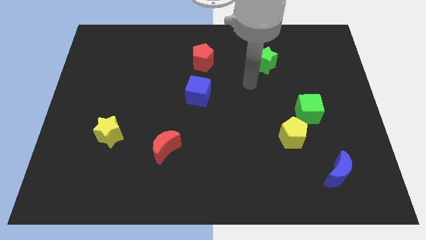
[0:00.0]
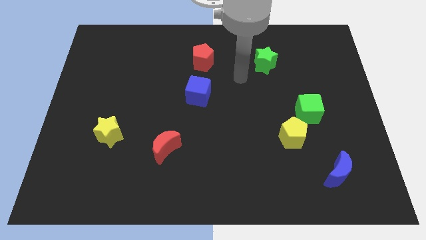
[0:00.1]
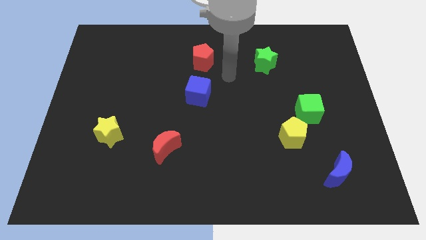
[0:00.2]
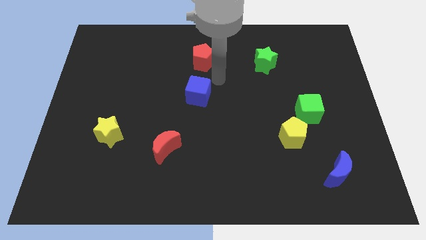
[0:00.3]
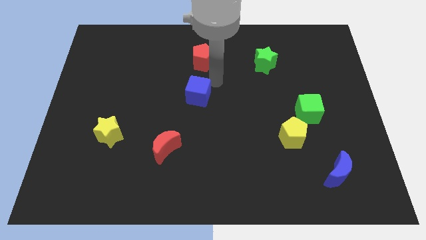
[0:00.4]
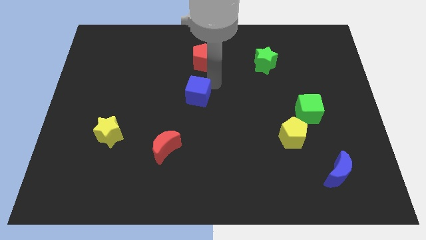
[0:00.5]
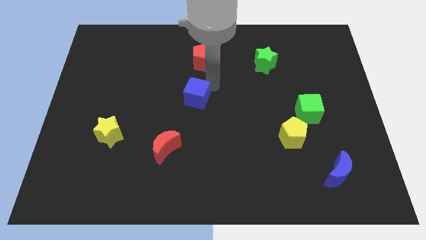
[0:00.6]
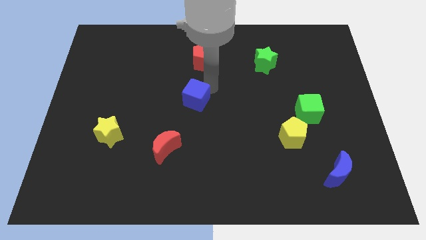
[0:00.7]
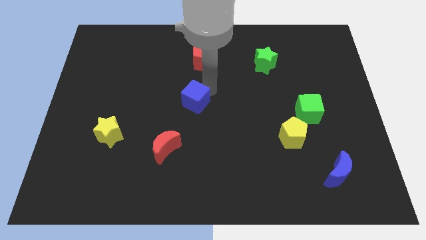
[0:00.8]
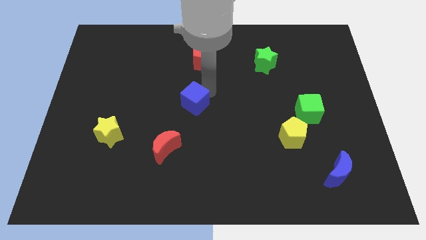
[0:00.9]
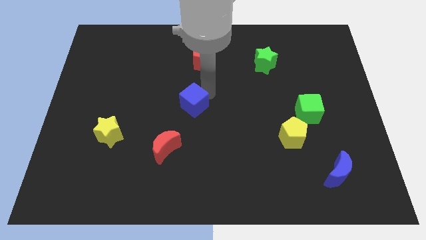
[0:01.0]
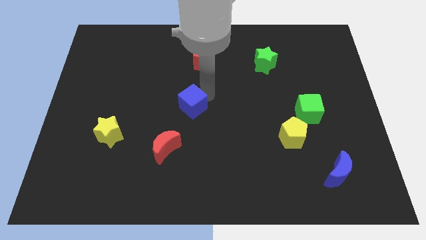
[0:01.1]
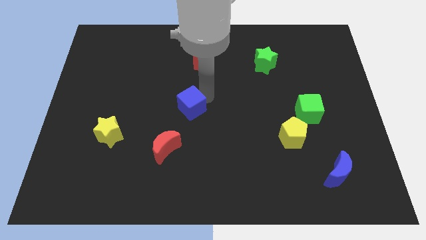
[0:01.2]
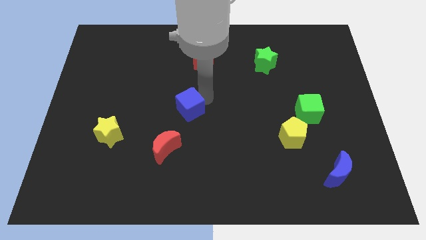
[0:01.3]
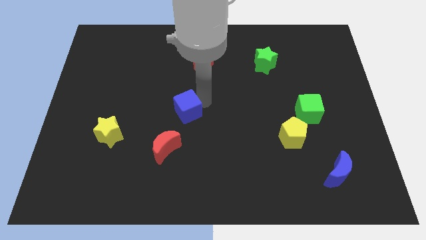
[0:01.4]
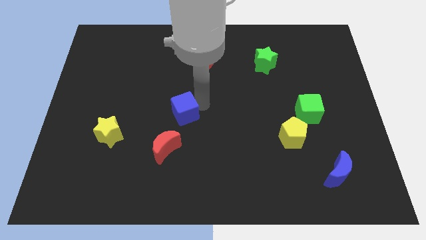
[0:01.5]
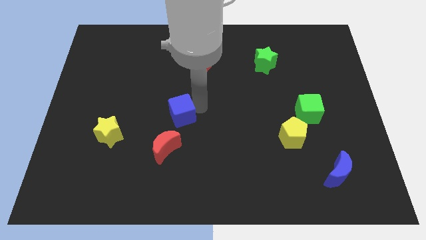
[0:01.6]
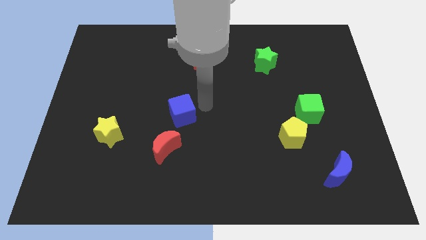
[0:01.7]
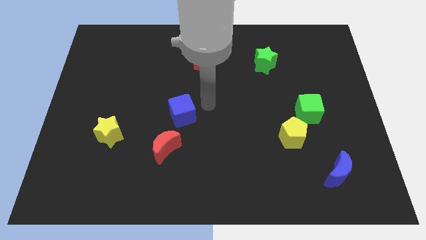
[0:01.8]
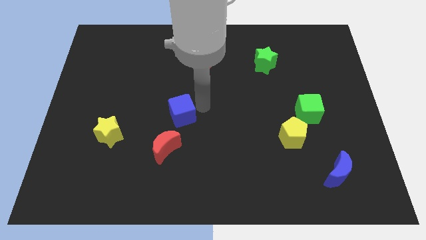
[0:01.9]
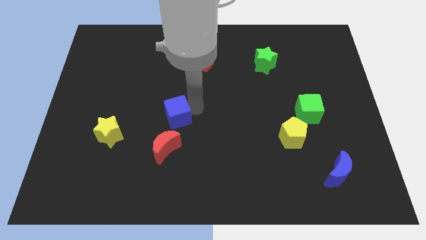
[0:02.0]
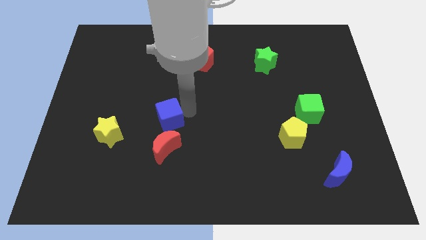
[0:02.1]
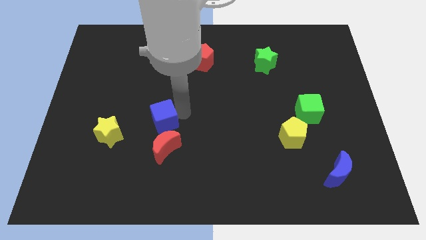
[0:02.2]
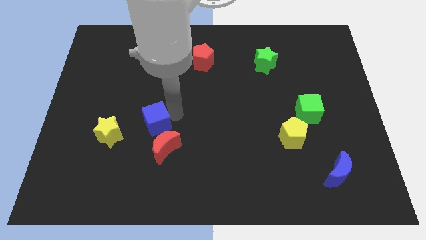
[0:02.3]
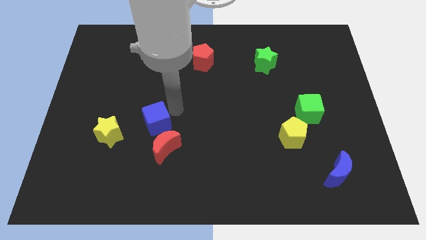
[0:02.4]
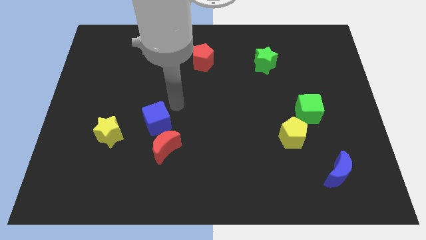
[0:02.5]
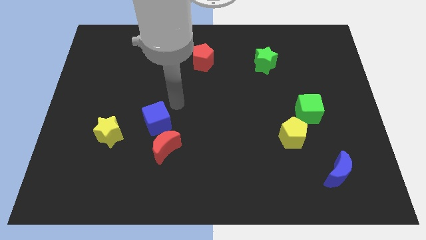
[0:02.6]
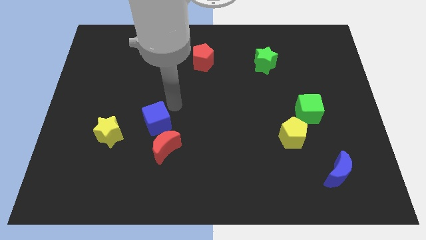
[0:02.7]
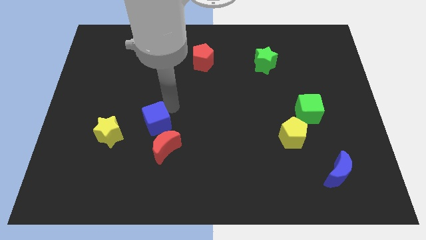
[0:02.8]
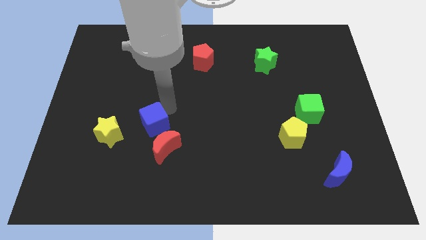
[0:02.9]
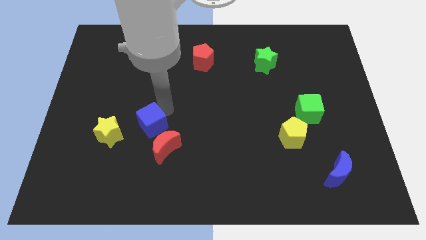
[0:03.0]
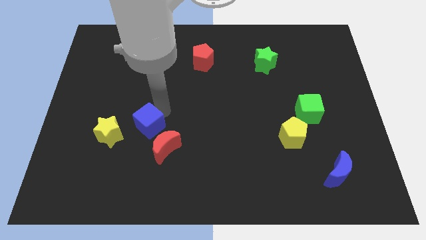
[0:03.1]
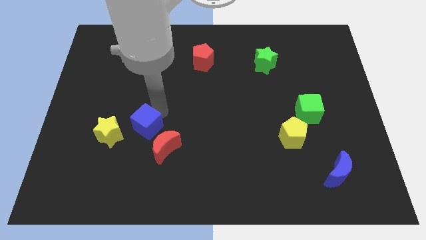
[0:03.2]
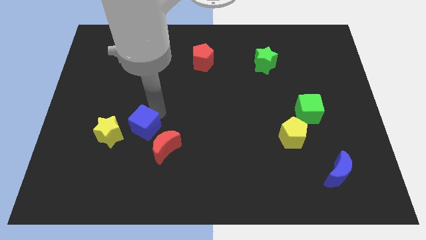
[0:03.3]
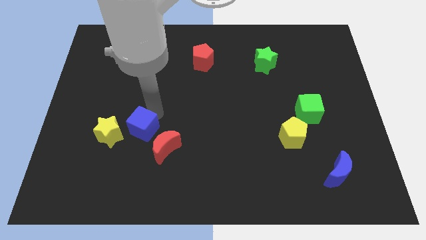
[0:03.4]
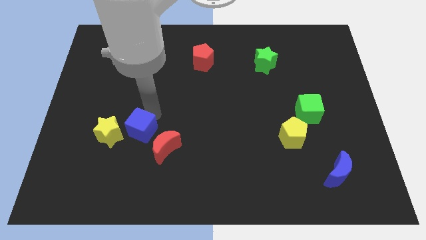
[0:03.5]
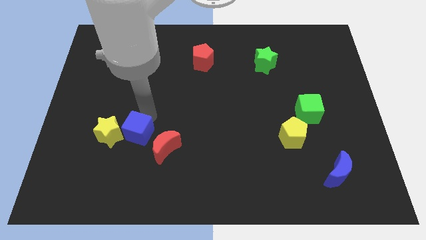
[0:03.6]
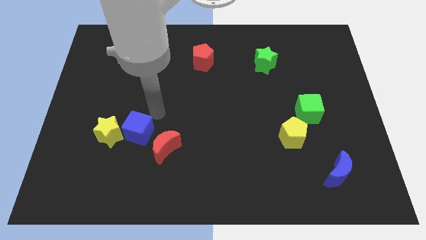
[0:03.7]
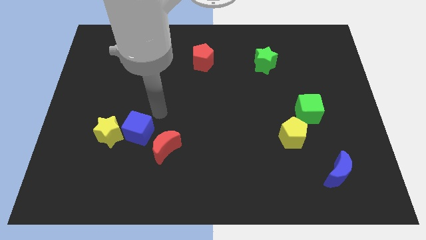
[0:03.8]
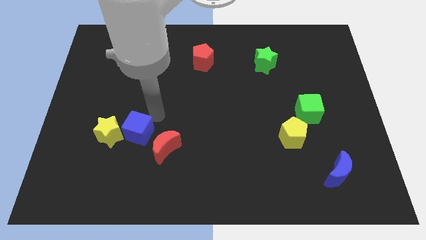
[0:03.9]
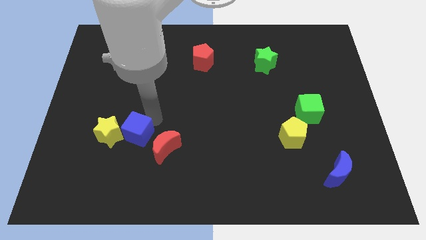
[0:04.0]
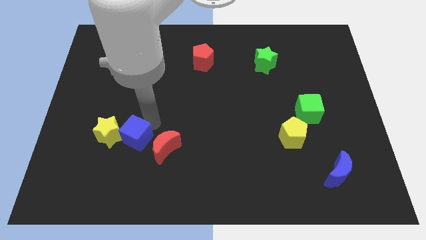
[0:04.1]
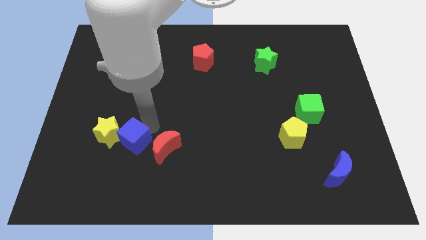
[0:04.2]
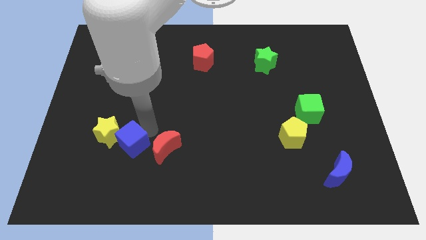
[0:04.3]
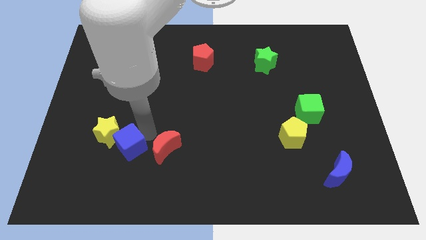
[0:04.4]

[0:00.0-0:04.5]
push the blue cube downwards and to the left

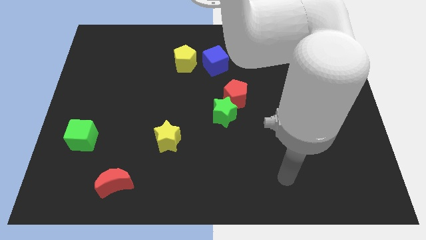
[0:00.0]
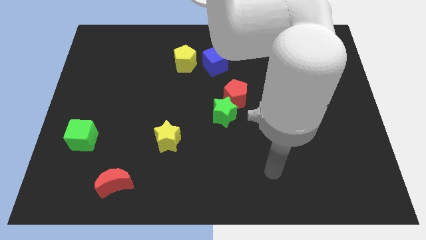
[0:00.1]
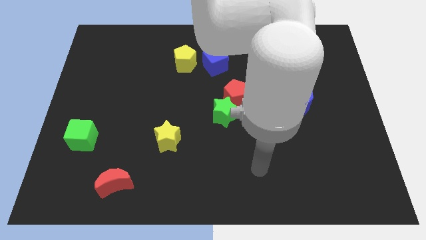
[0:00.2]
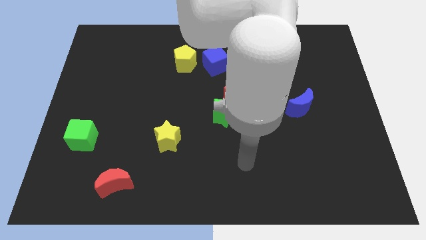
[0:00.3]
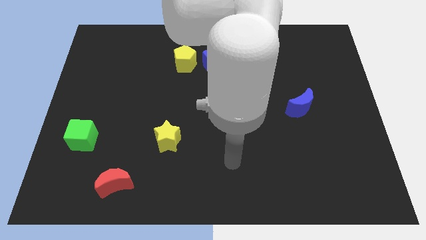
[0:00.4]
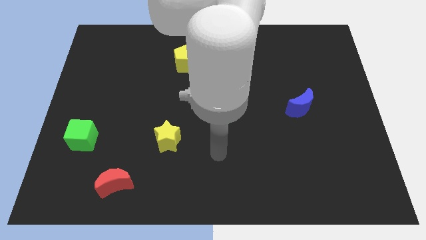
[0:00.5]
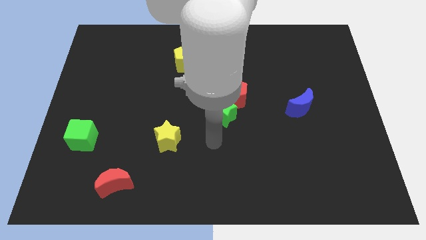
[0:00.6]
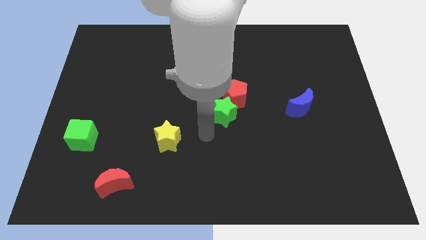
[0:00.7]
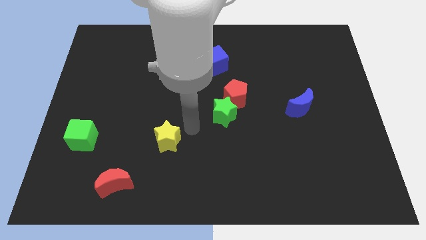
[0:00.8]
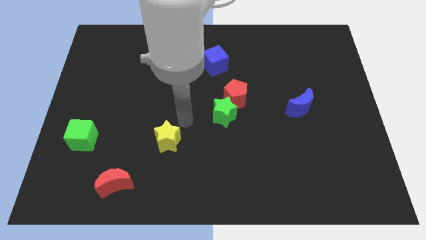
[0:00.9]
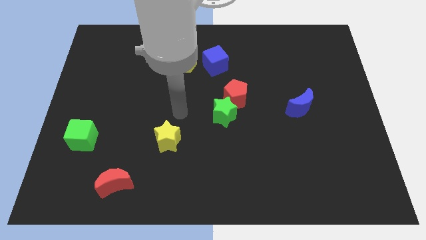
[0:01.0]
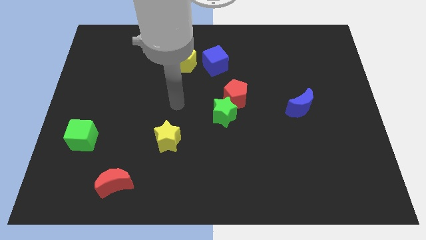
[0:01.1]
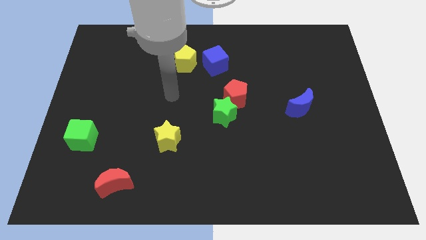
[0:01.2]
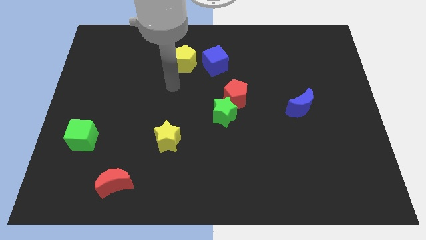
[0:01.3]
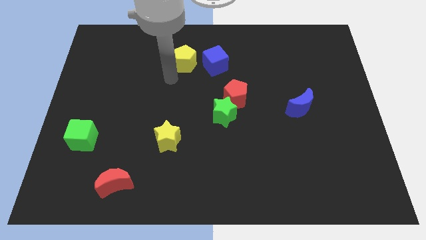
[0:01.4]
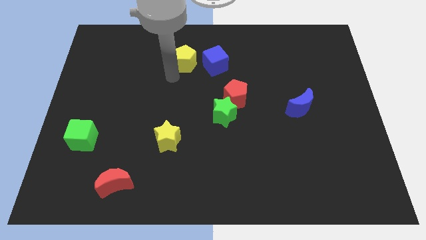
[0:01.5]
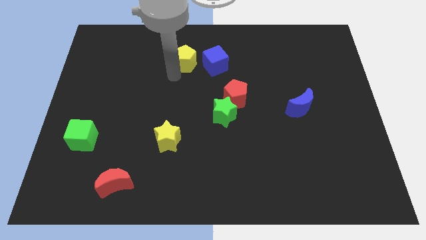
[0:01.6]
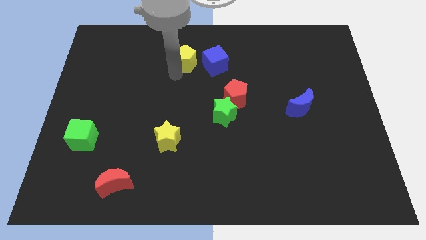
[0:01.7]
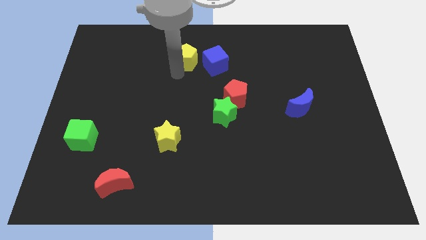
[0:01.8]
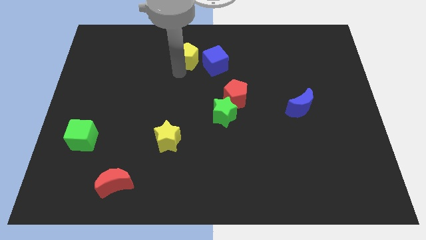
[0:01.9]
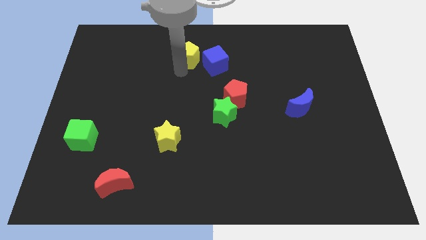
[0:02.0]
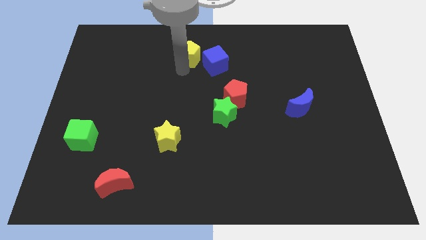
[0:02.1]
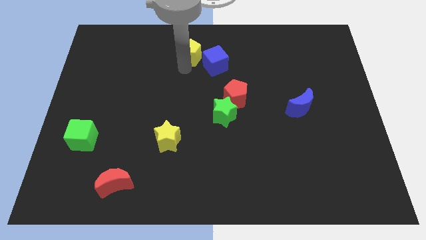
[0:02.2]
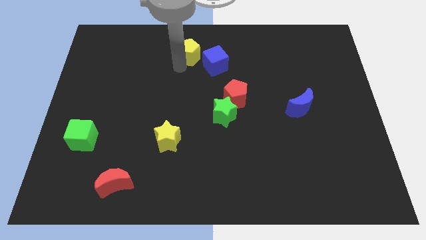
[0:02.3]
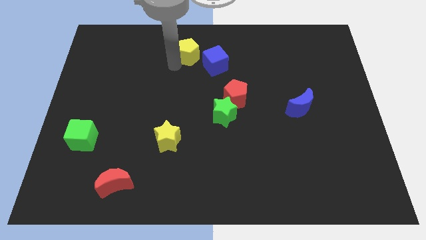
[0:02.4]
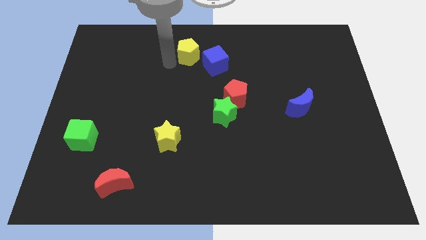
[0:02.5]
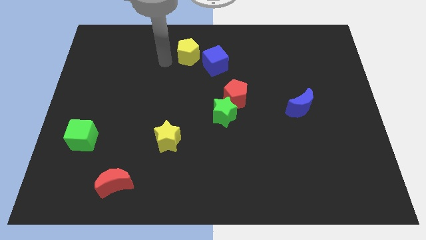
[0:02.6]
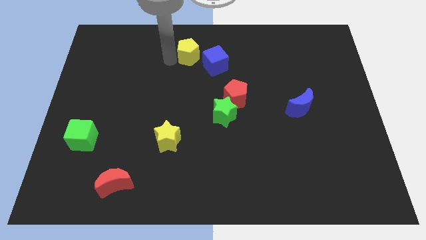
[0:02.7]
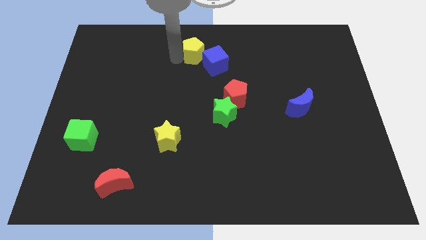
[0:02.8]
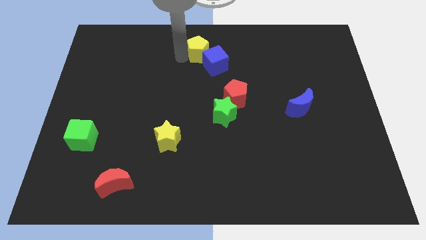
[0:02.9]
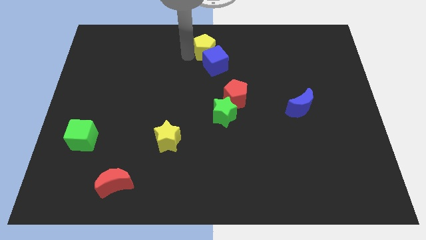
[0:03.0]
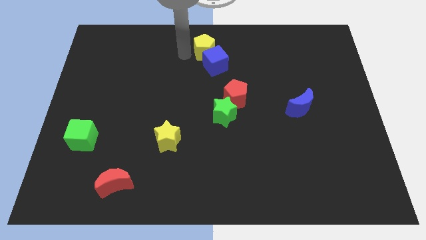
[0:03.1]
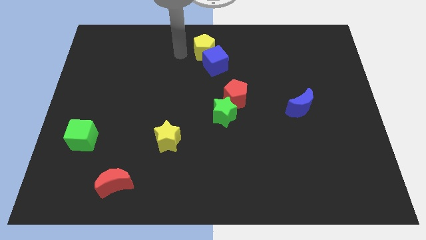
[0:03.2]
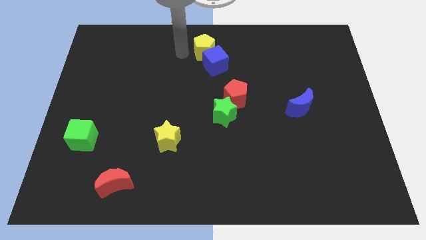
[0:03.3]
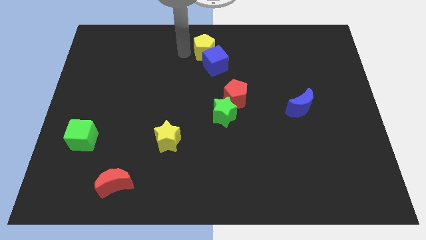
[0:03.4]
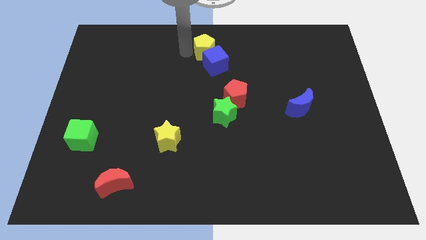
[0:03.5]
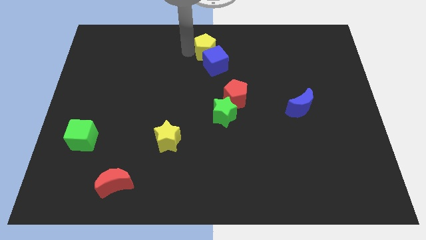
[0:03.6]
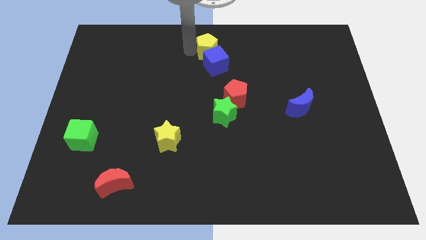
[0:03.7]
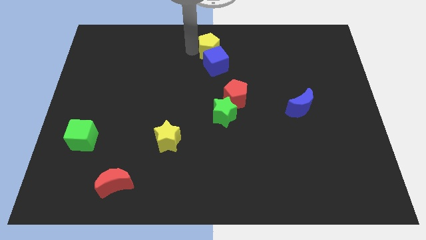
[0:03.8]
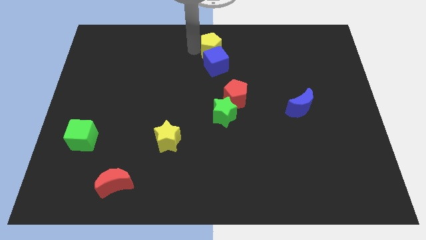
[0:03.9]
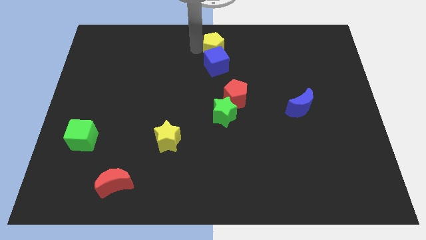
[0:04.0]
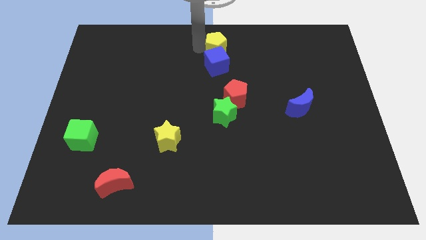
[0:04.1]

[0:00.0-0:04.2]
push the yellow pentagon somewhat to the right
